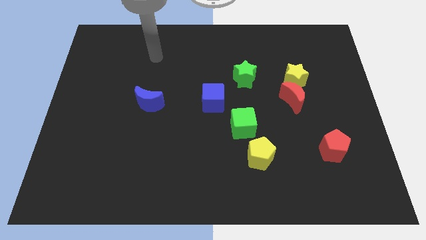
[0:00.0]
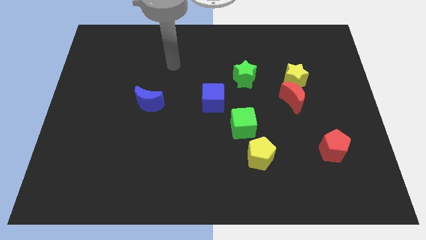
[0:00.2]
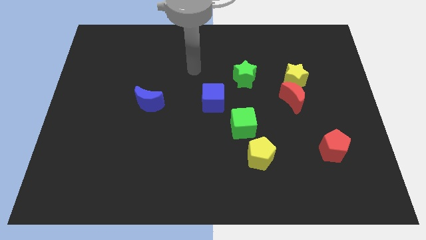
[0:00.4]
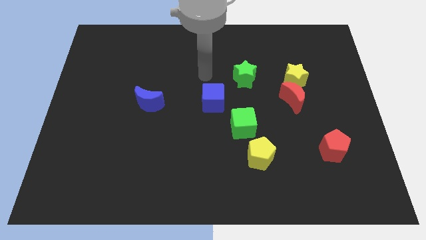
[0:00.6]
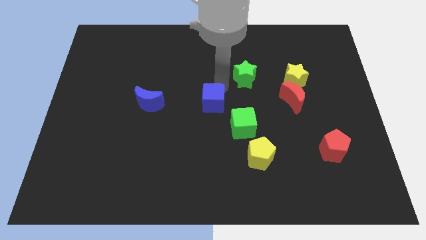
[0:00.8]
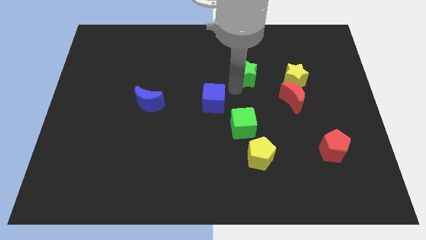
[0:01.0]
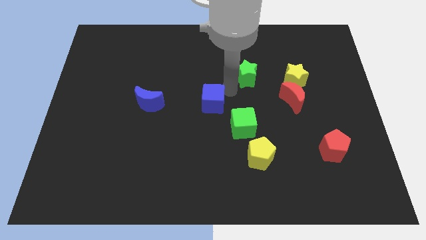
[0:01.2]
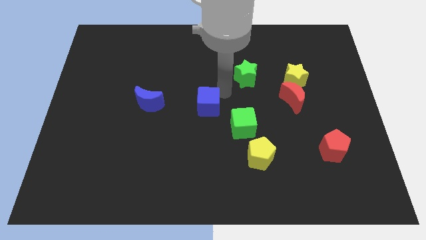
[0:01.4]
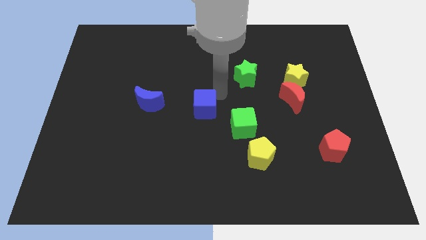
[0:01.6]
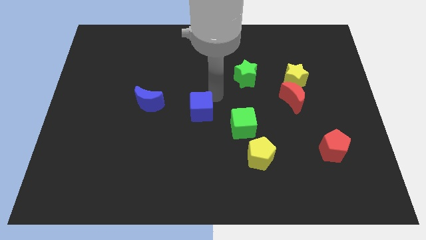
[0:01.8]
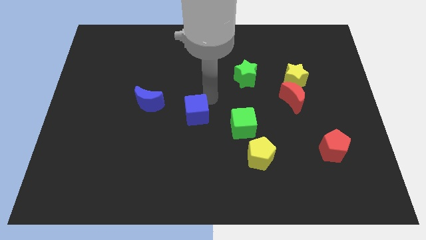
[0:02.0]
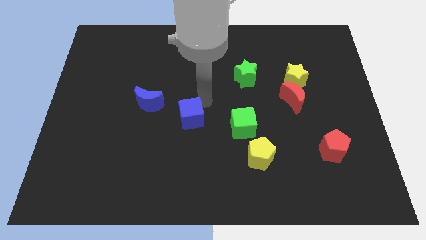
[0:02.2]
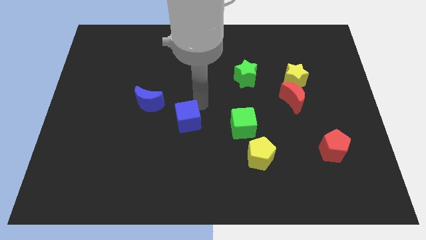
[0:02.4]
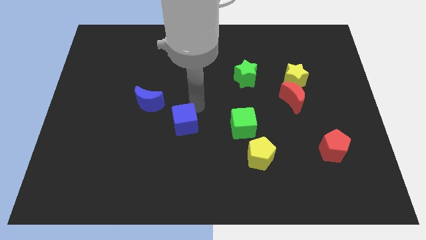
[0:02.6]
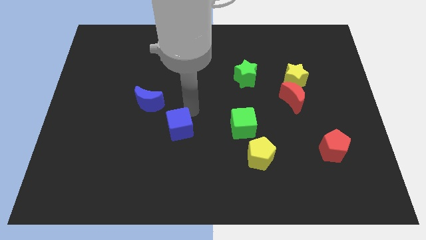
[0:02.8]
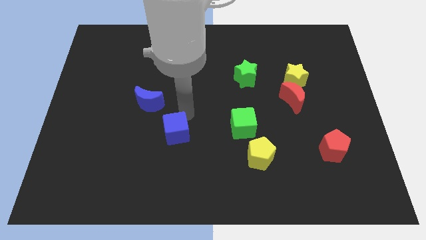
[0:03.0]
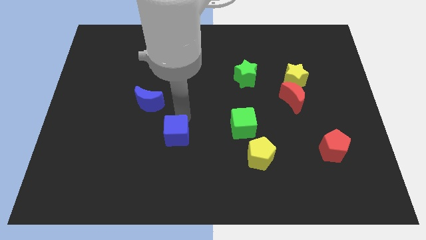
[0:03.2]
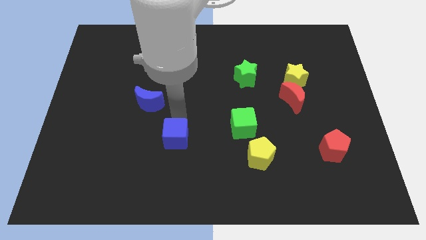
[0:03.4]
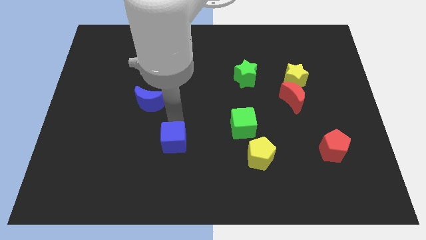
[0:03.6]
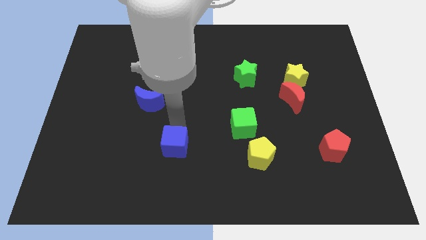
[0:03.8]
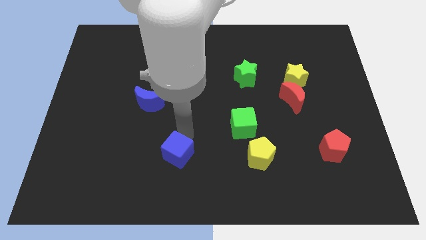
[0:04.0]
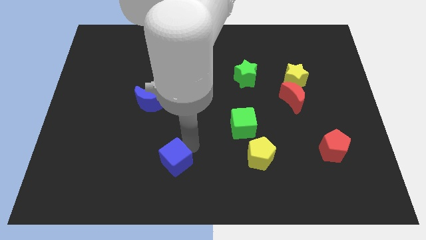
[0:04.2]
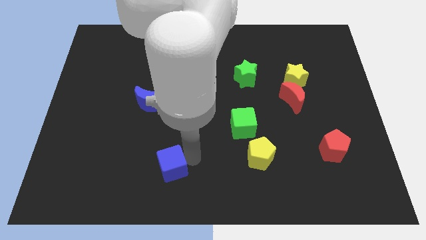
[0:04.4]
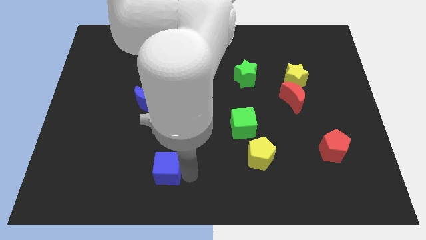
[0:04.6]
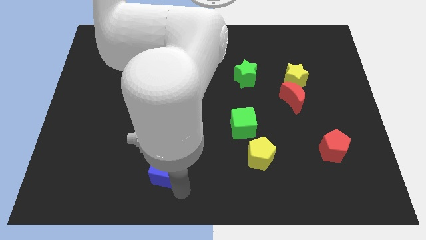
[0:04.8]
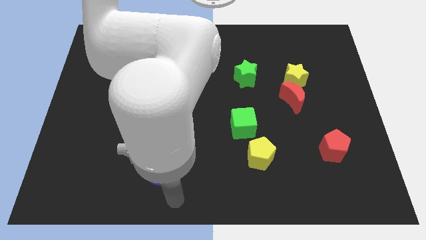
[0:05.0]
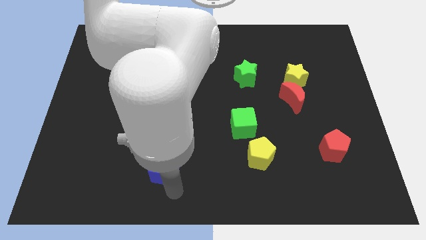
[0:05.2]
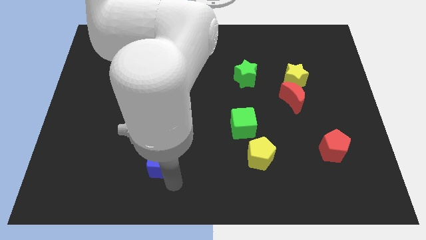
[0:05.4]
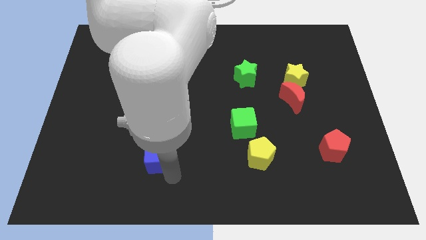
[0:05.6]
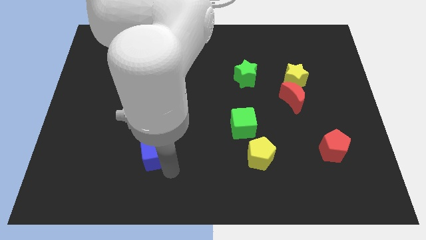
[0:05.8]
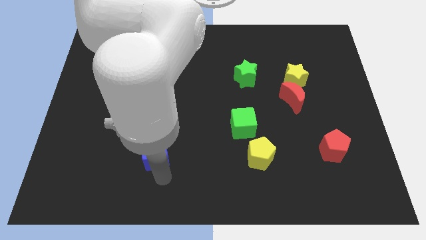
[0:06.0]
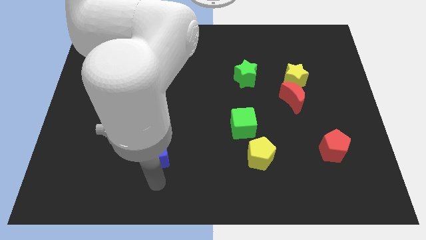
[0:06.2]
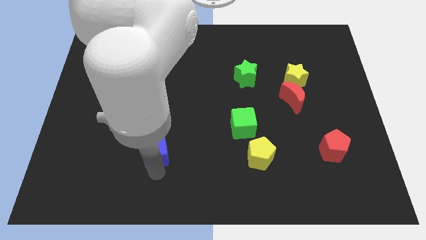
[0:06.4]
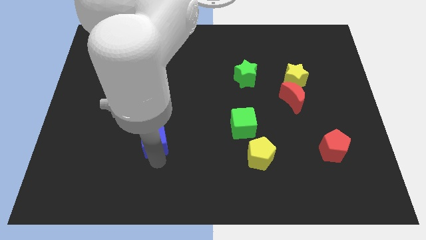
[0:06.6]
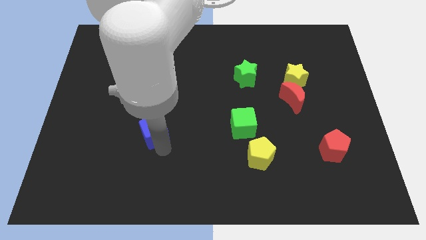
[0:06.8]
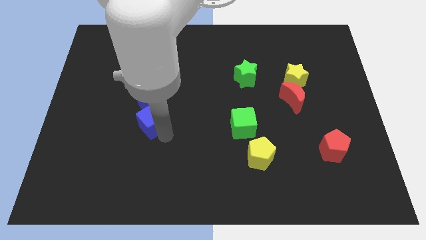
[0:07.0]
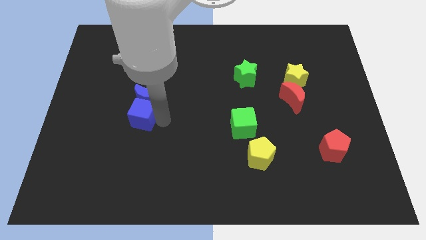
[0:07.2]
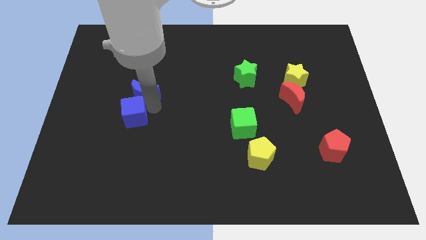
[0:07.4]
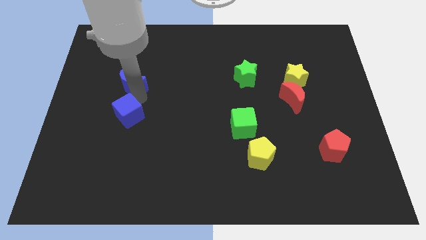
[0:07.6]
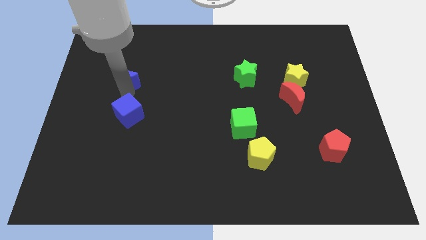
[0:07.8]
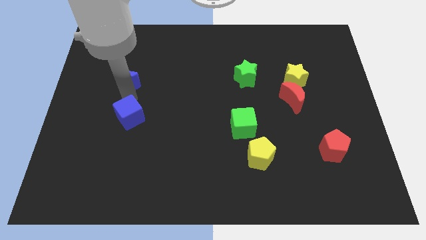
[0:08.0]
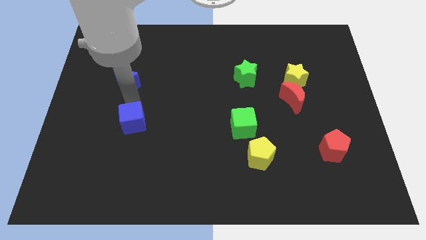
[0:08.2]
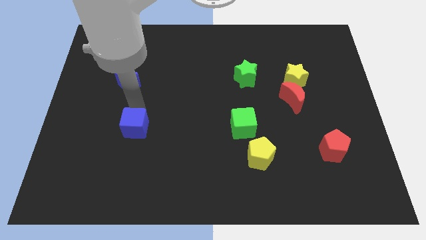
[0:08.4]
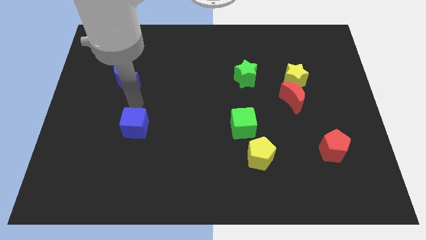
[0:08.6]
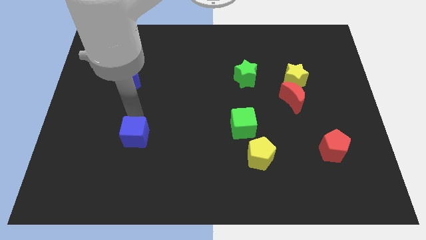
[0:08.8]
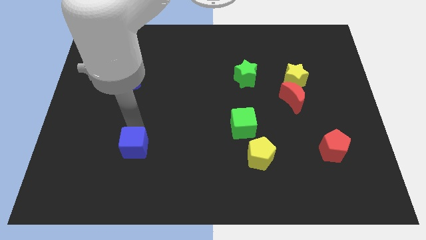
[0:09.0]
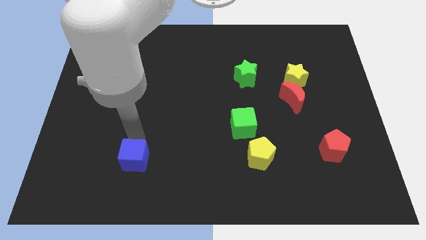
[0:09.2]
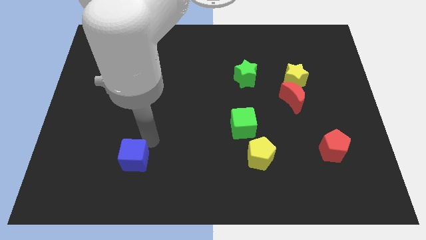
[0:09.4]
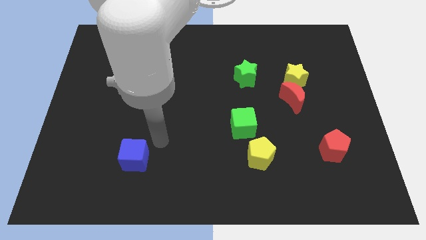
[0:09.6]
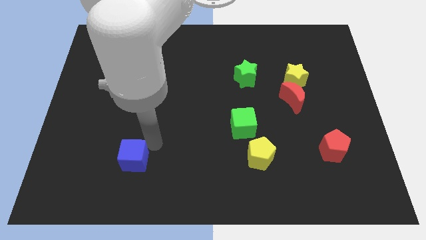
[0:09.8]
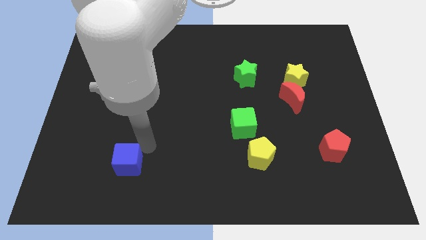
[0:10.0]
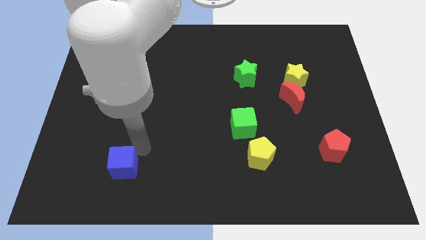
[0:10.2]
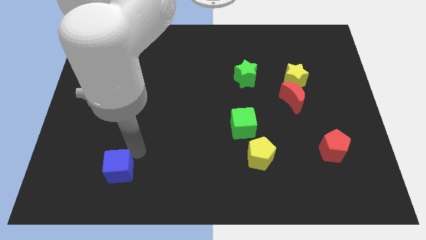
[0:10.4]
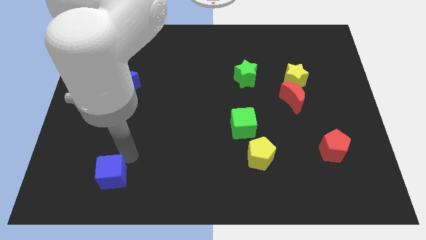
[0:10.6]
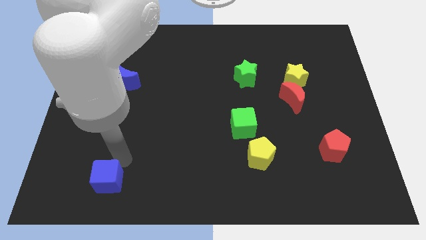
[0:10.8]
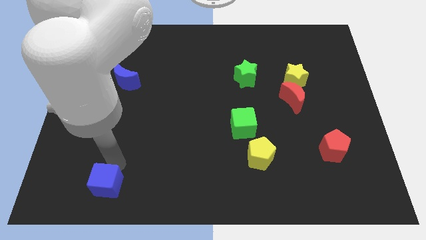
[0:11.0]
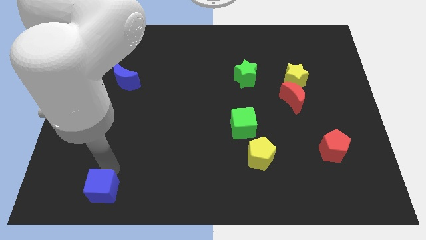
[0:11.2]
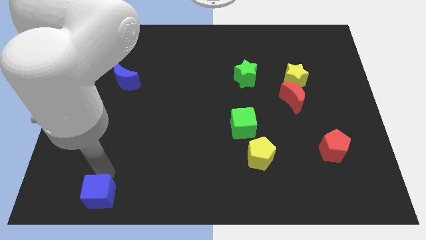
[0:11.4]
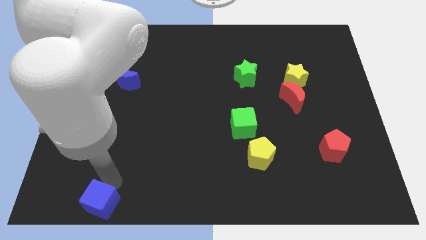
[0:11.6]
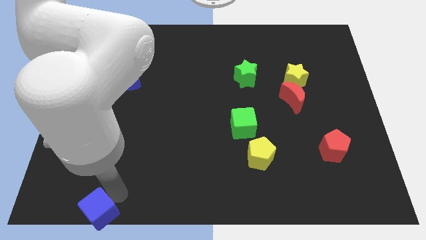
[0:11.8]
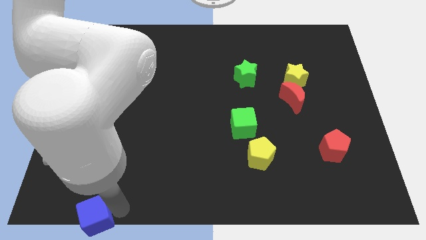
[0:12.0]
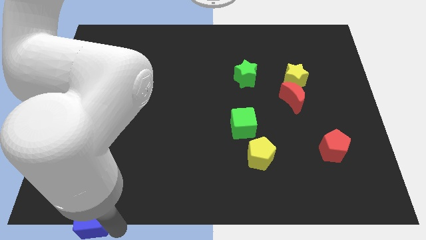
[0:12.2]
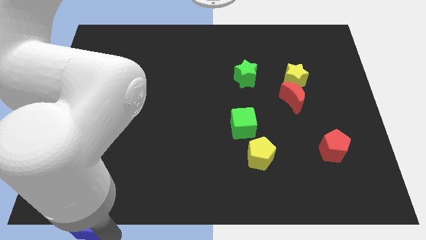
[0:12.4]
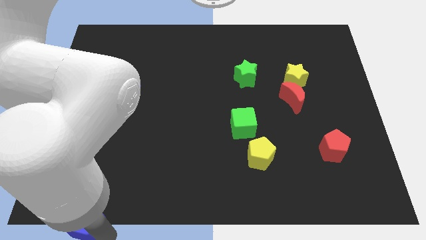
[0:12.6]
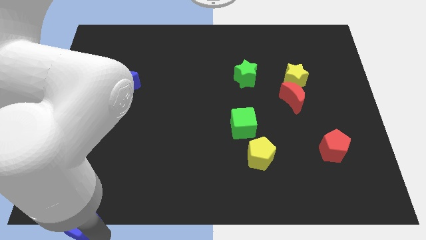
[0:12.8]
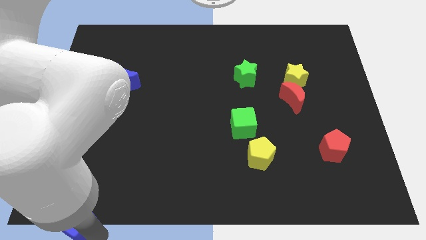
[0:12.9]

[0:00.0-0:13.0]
put the blue cube to the bottom left

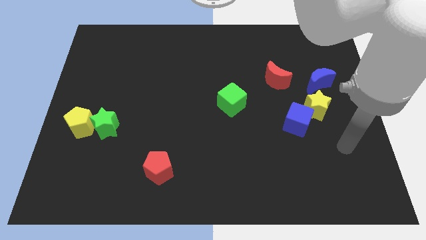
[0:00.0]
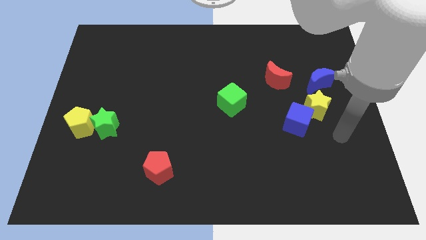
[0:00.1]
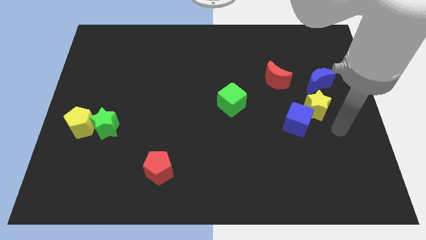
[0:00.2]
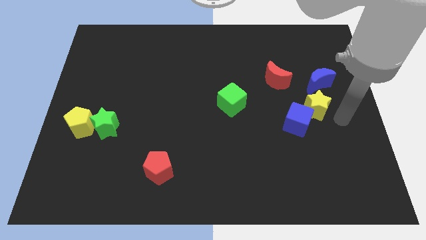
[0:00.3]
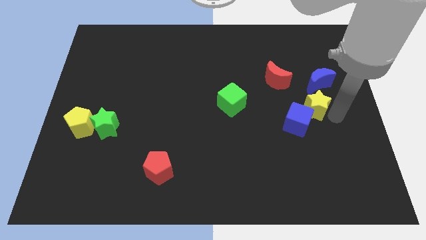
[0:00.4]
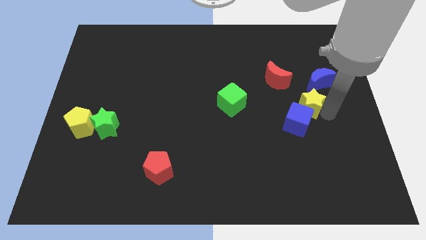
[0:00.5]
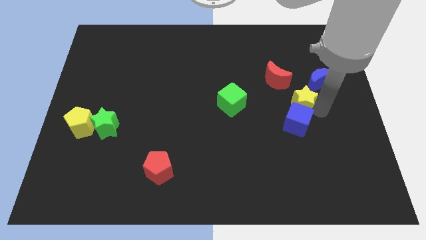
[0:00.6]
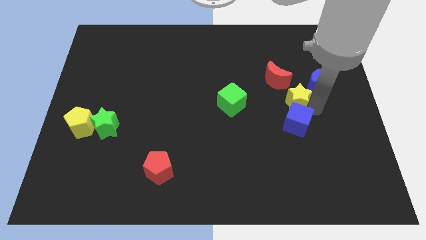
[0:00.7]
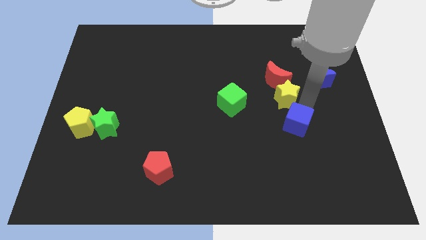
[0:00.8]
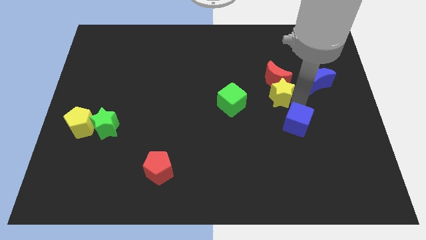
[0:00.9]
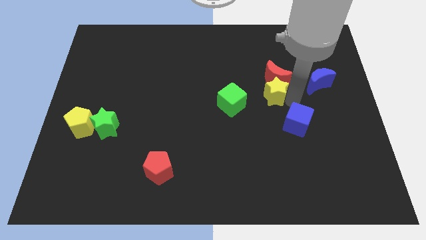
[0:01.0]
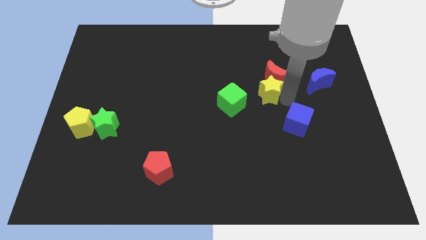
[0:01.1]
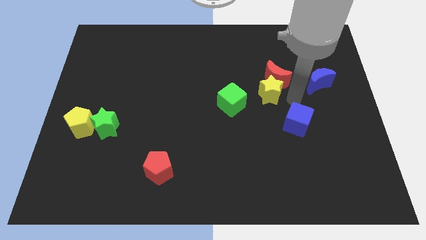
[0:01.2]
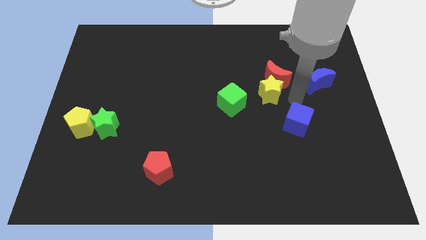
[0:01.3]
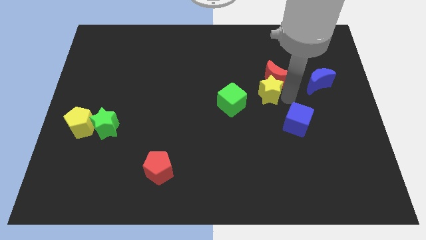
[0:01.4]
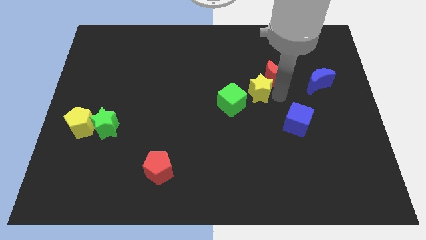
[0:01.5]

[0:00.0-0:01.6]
slide the yellow star to the middle
